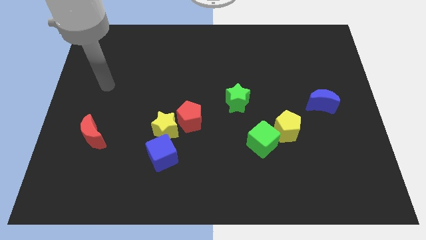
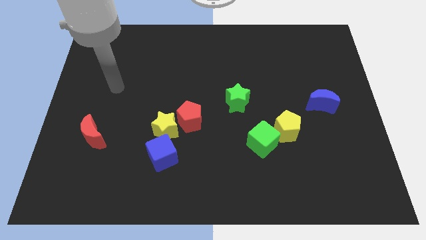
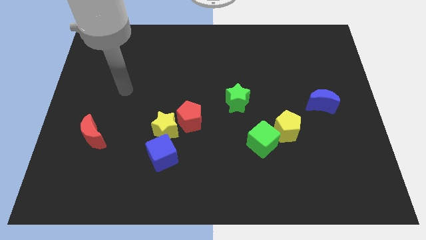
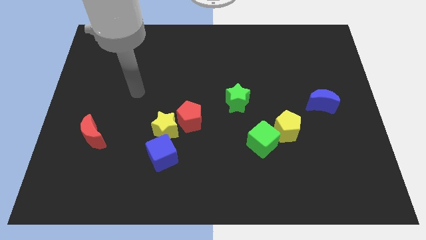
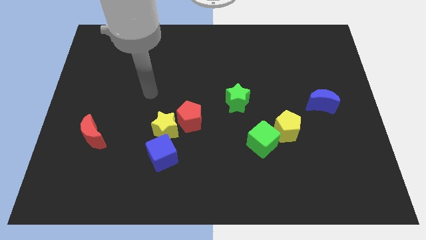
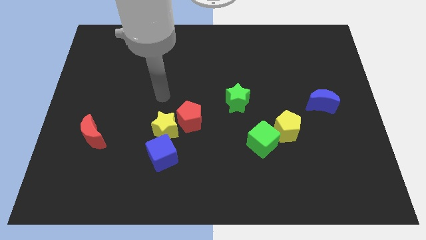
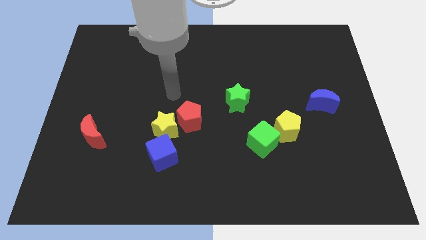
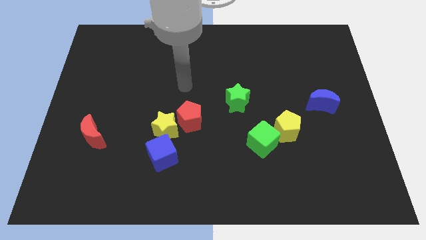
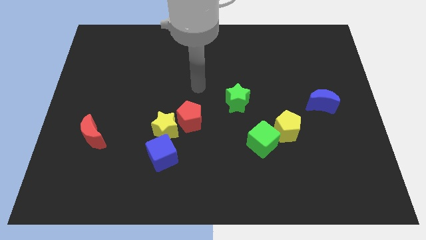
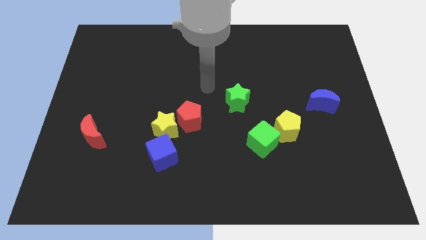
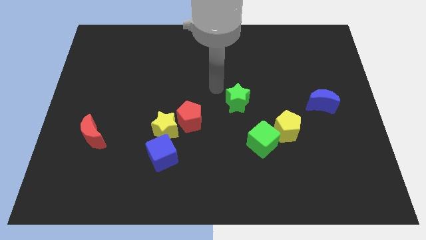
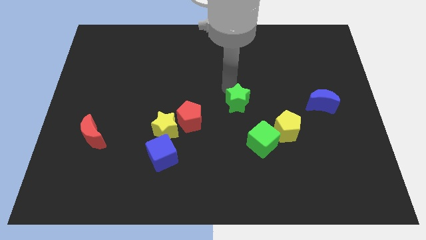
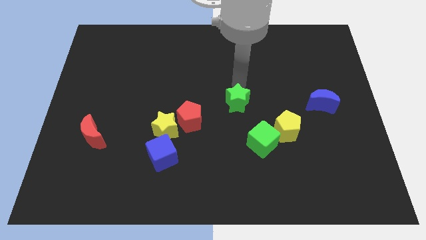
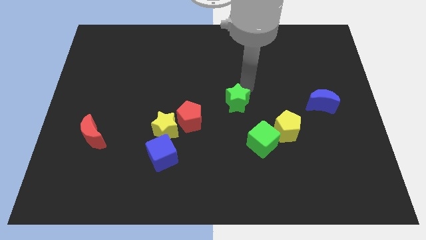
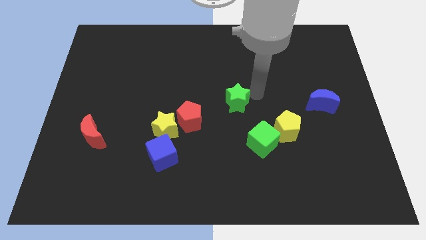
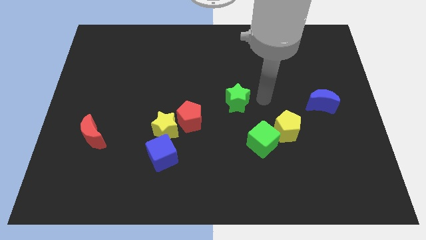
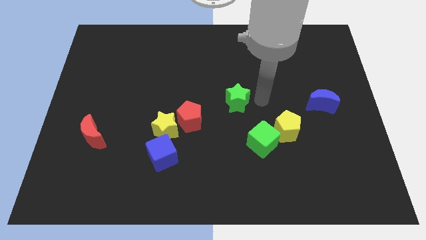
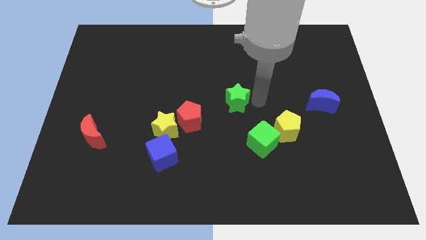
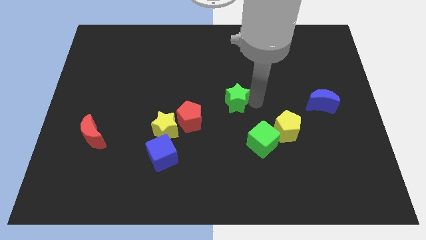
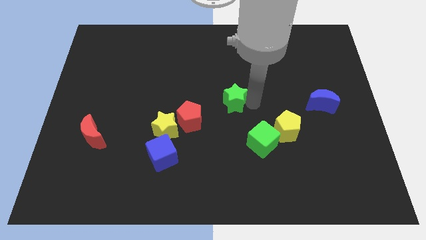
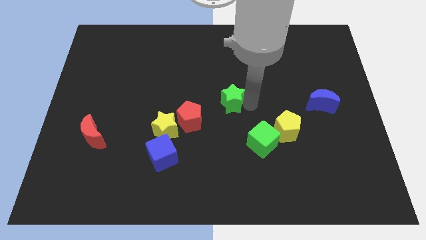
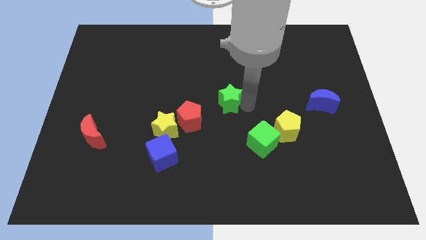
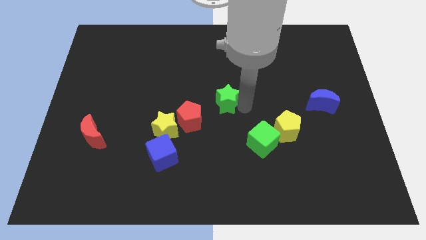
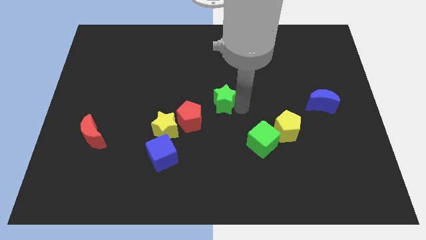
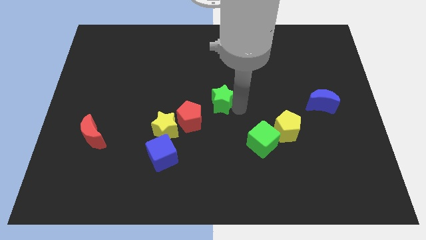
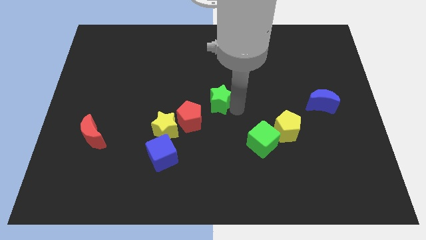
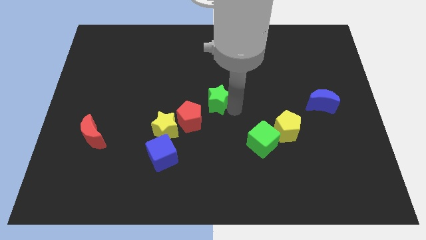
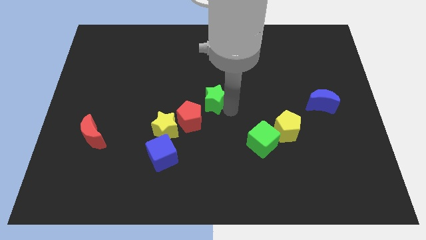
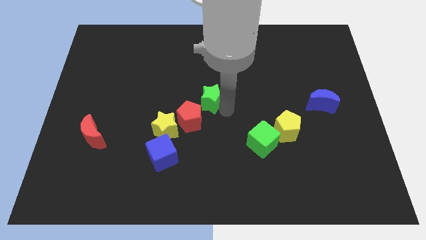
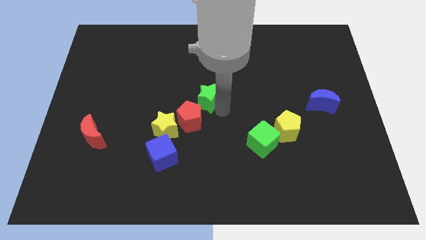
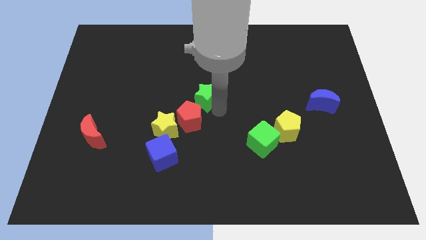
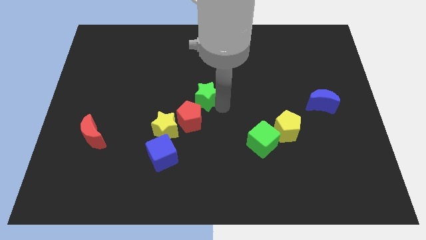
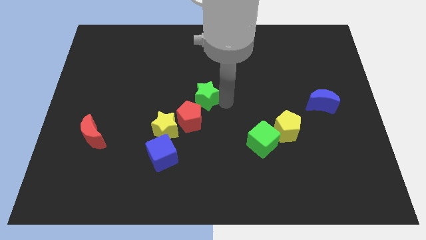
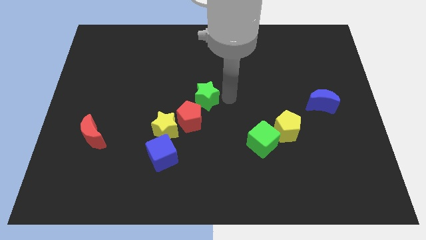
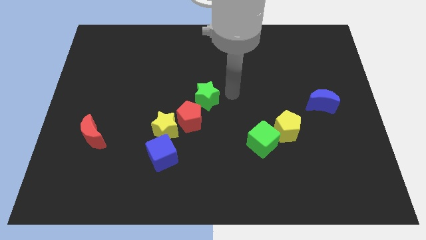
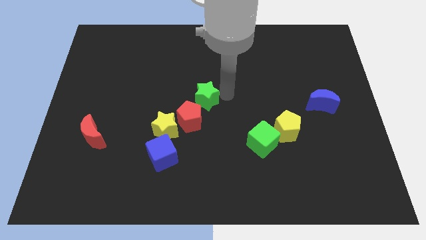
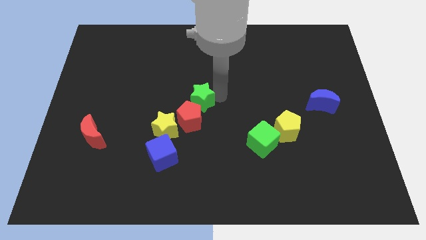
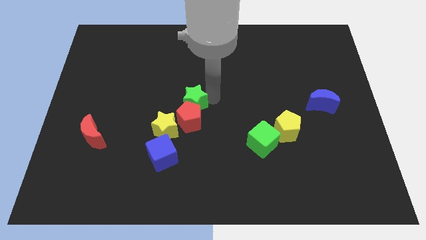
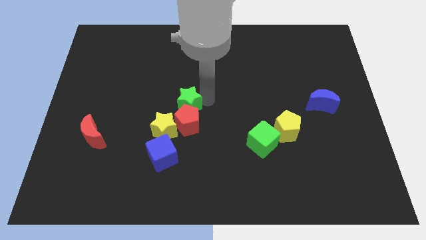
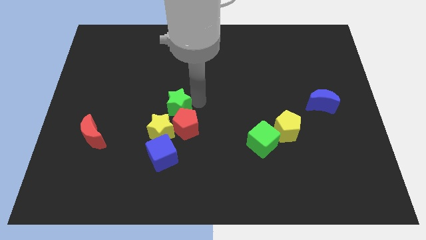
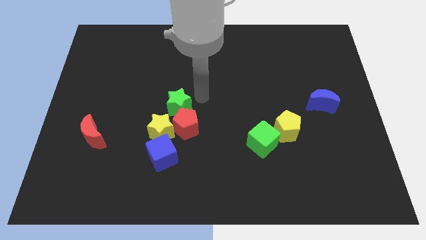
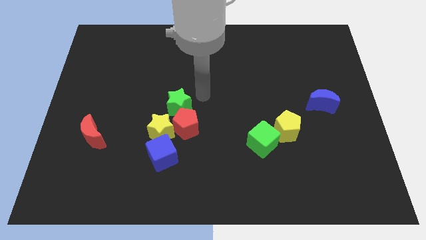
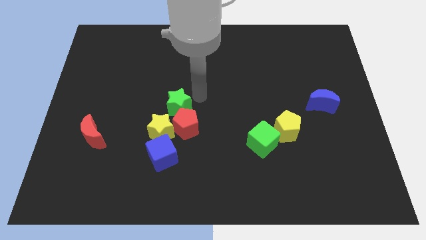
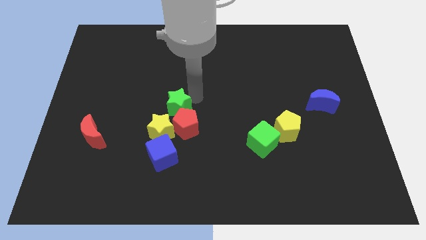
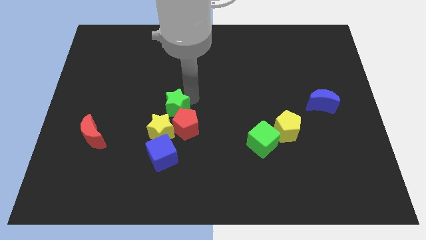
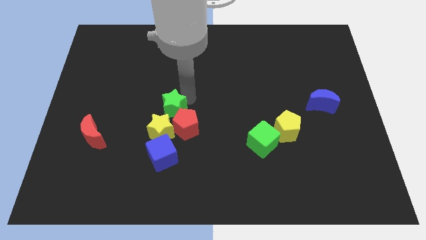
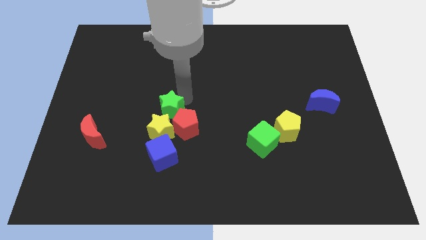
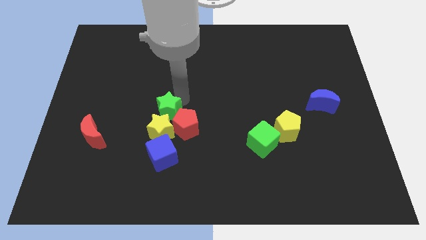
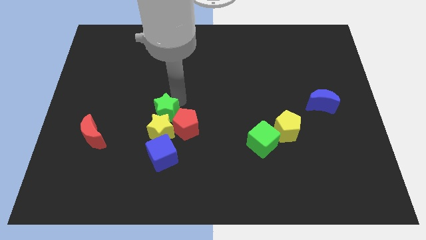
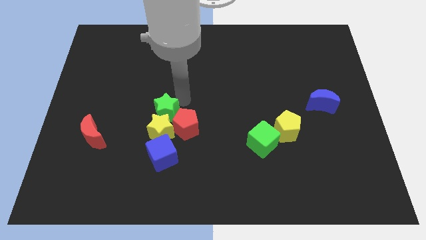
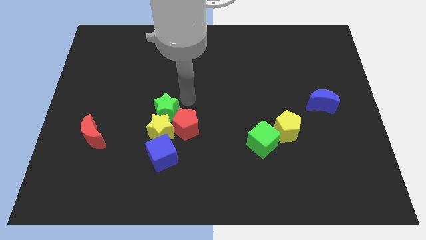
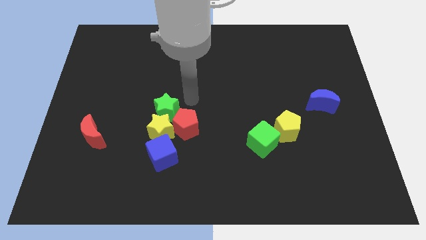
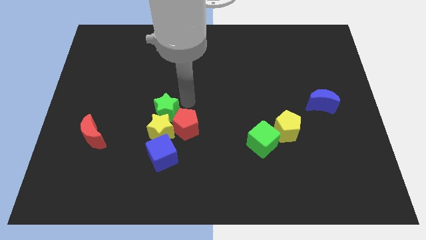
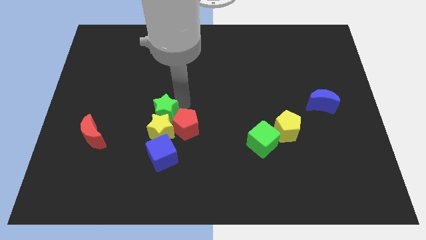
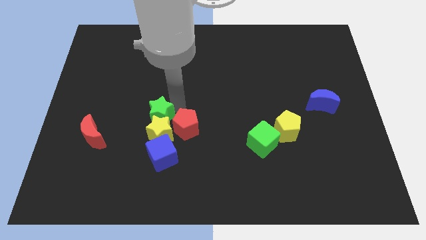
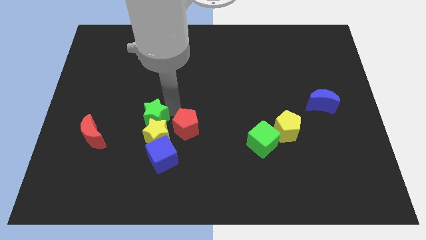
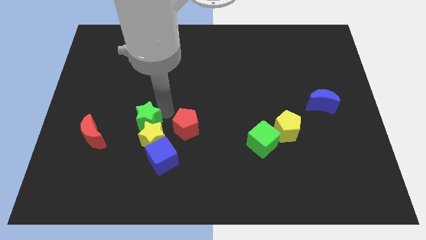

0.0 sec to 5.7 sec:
move the green star right of the red moon

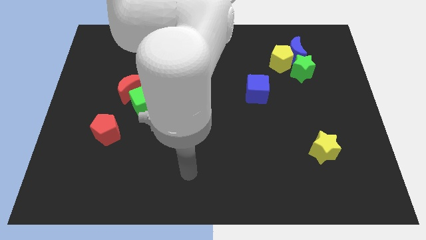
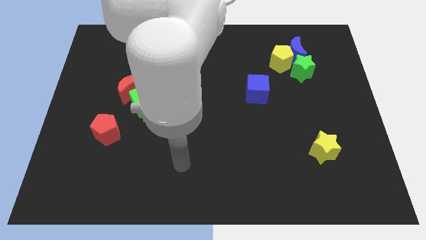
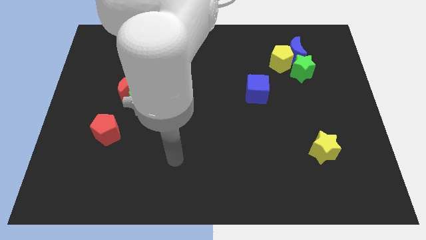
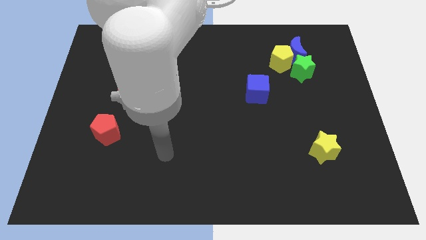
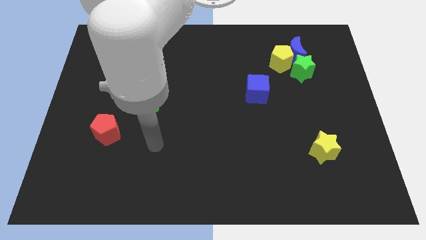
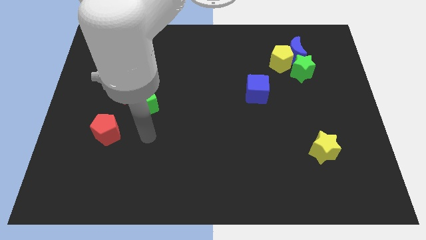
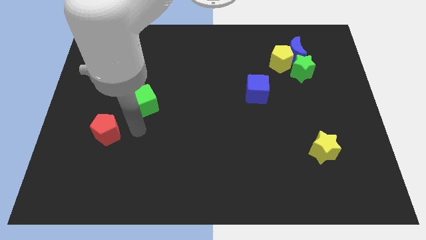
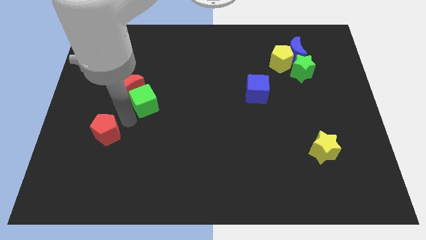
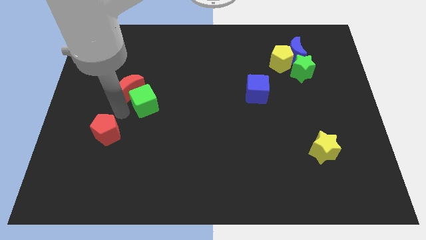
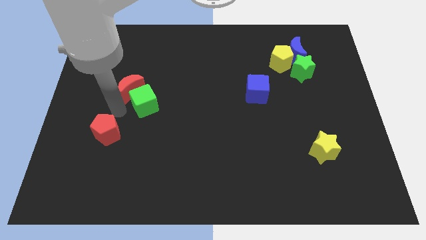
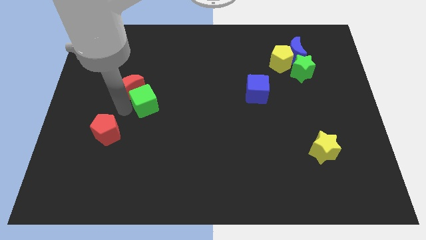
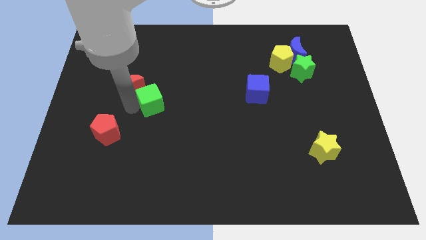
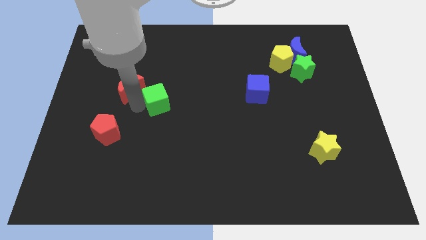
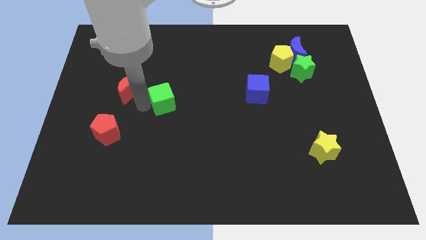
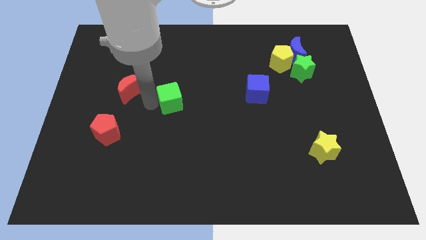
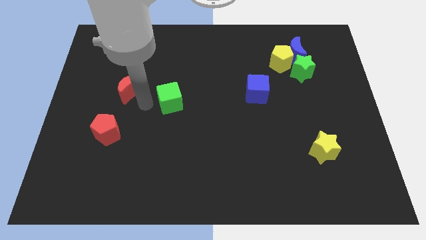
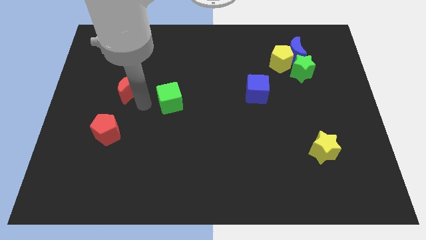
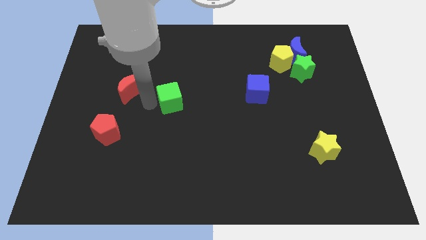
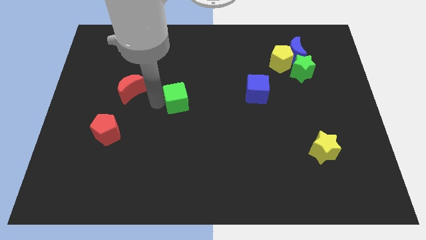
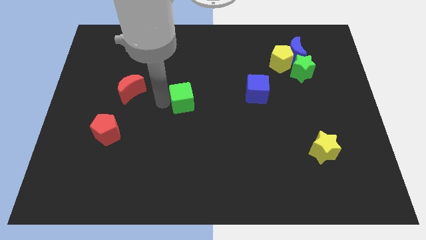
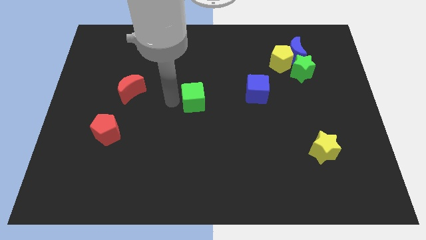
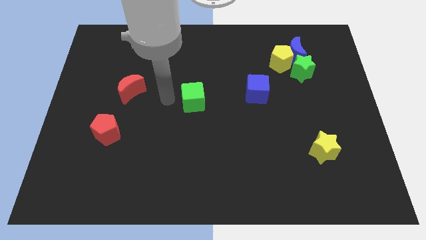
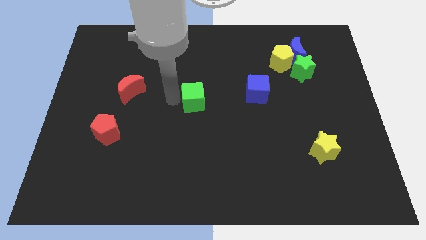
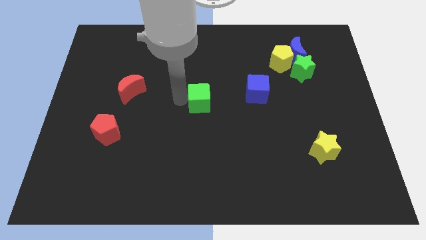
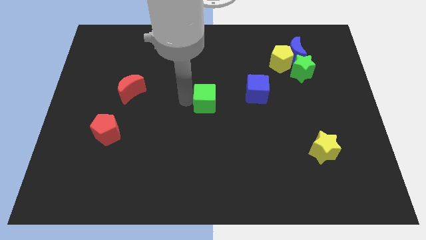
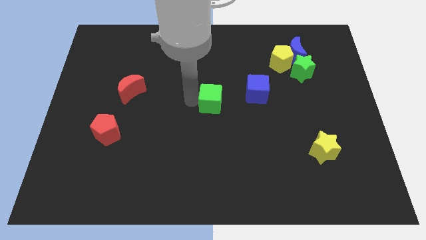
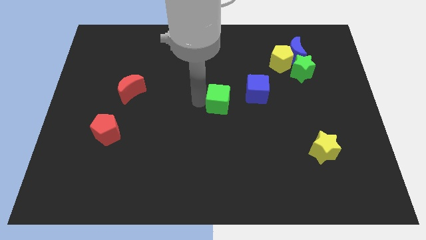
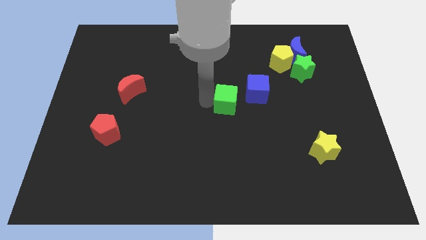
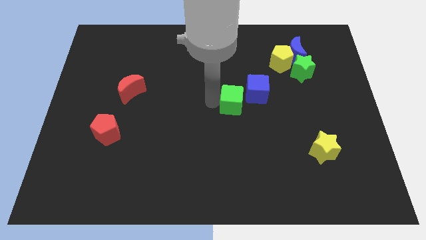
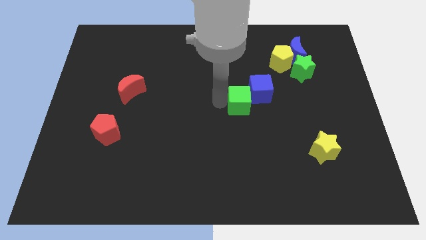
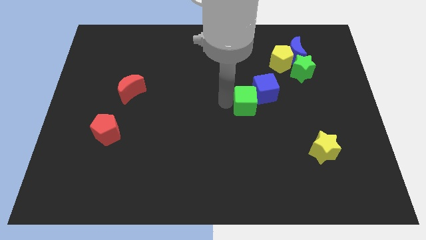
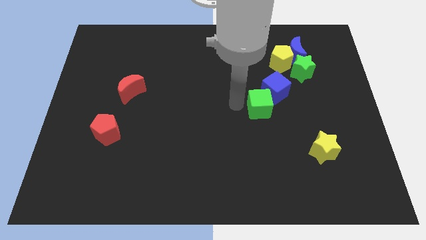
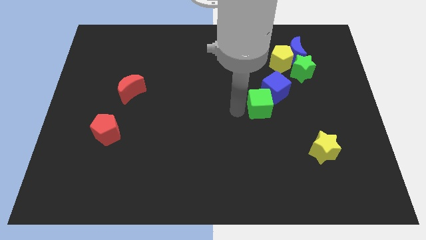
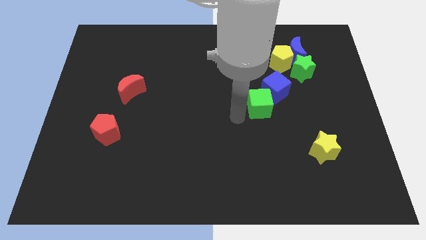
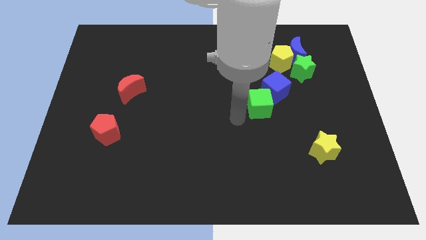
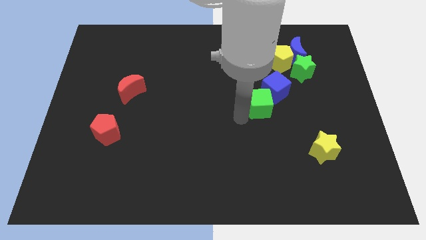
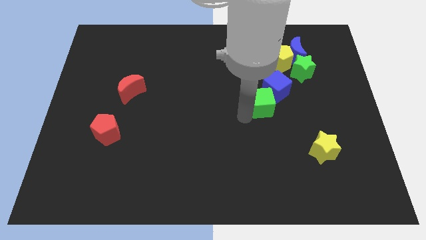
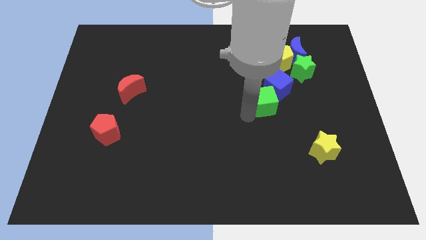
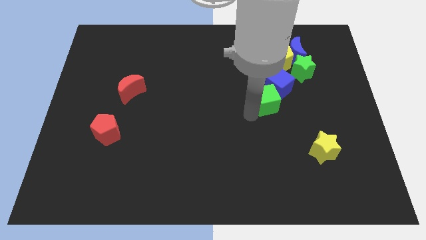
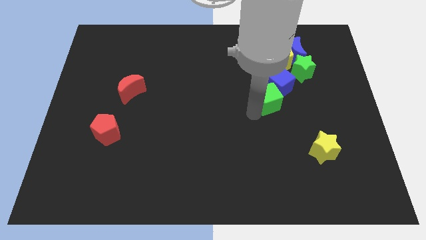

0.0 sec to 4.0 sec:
push the green cube to the bottom side of the yellow pentagon
